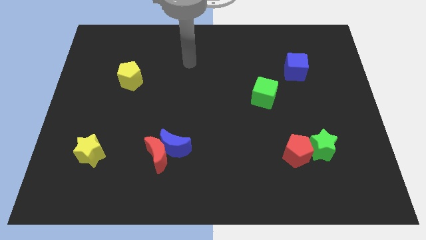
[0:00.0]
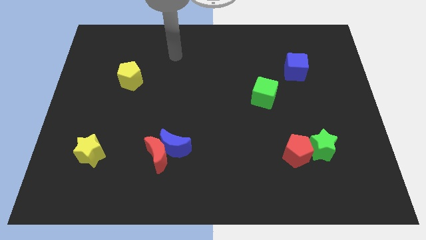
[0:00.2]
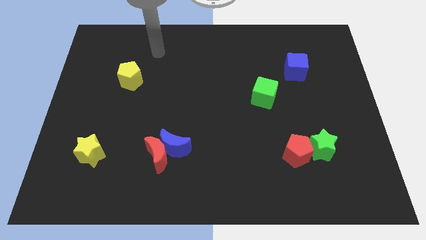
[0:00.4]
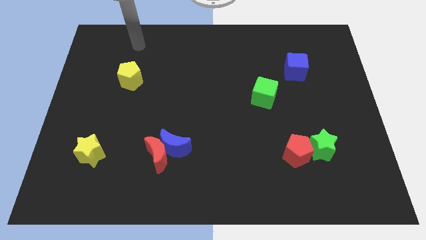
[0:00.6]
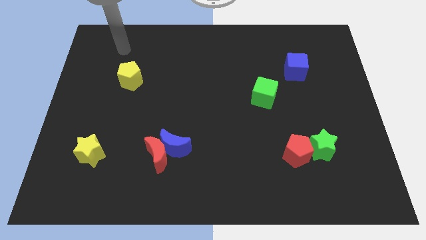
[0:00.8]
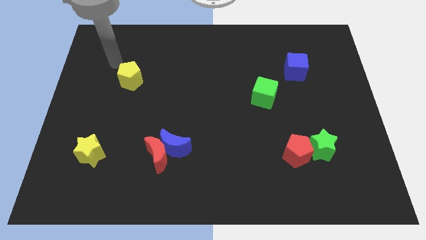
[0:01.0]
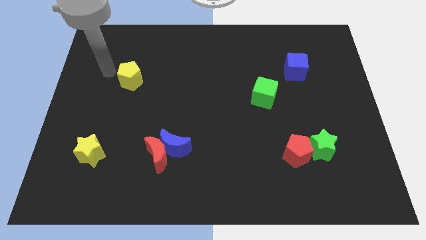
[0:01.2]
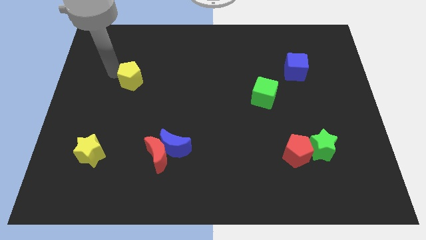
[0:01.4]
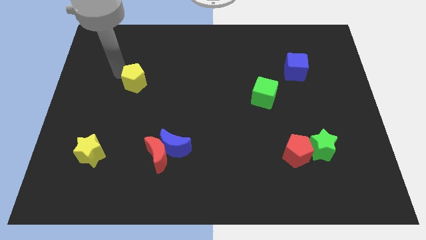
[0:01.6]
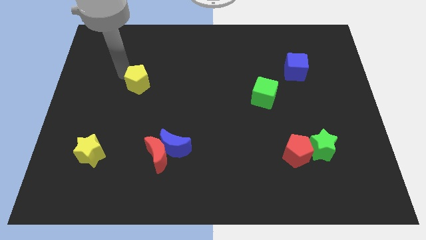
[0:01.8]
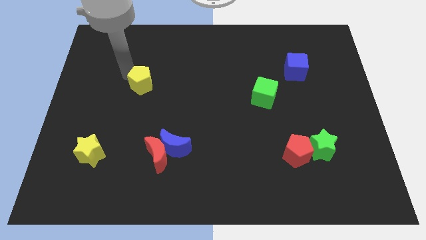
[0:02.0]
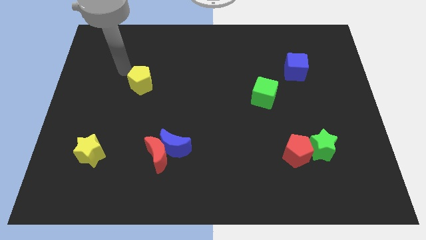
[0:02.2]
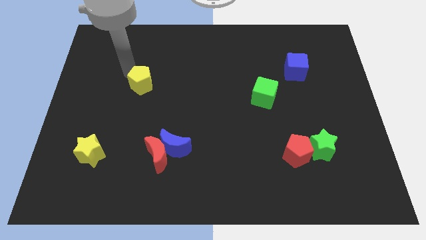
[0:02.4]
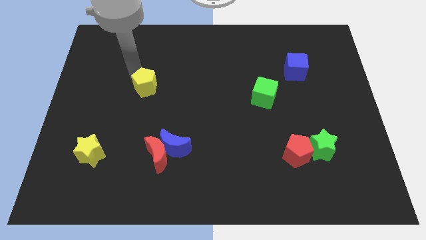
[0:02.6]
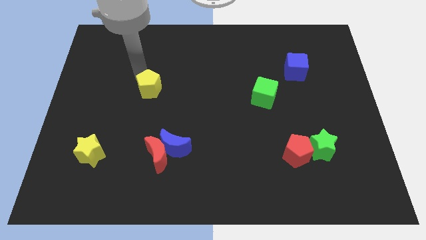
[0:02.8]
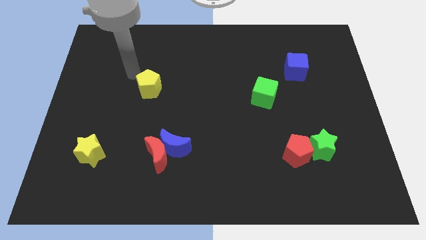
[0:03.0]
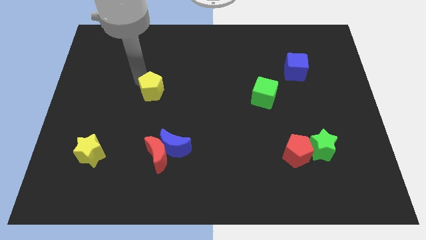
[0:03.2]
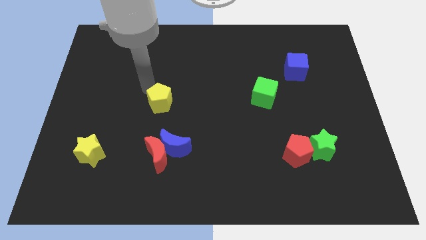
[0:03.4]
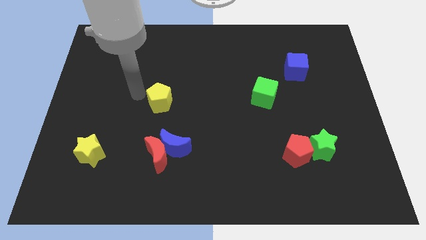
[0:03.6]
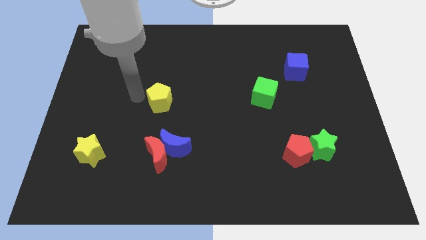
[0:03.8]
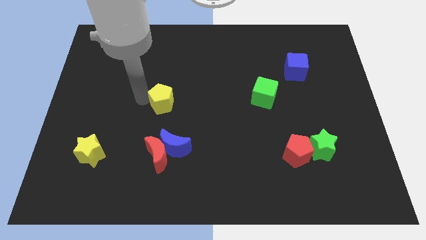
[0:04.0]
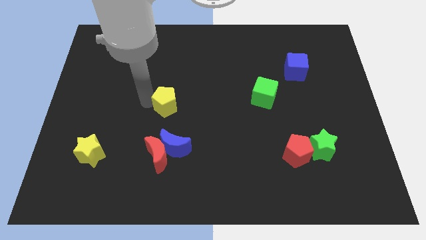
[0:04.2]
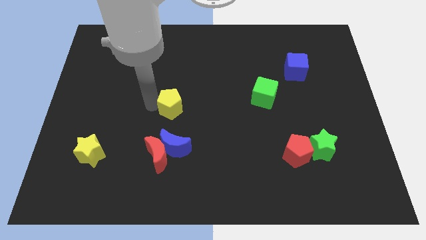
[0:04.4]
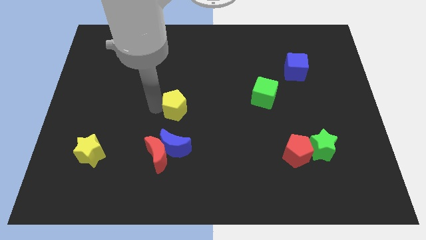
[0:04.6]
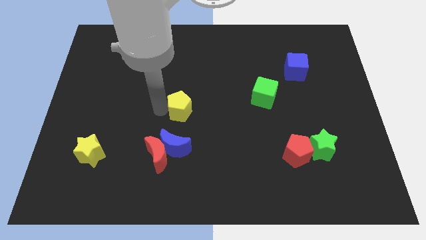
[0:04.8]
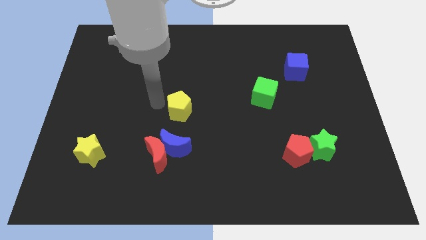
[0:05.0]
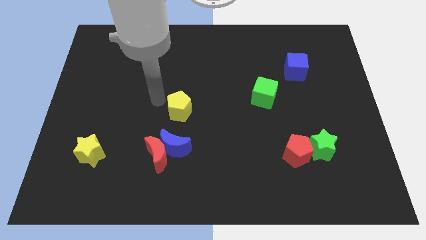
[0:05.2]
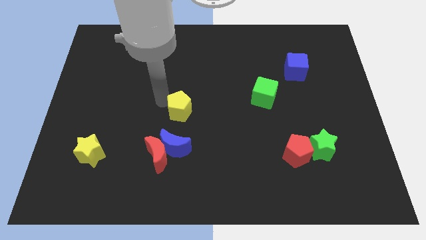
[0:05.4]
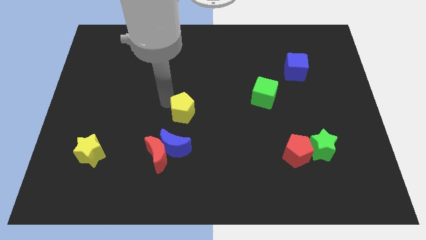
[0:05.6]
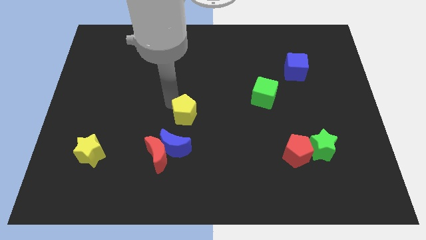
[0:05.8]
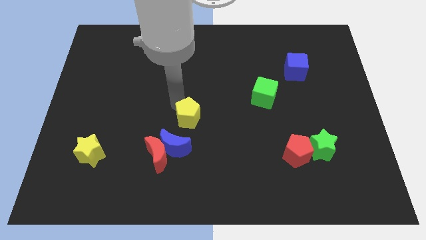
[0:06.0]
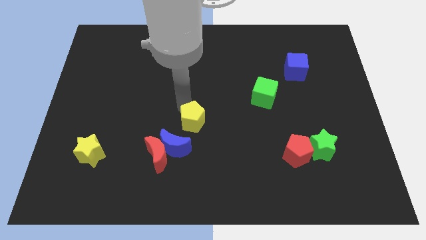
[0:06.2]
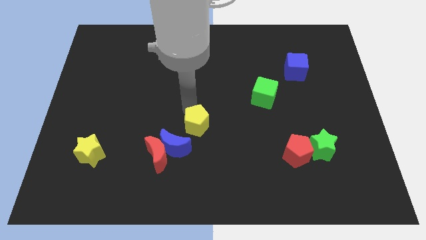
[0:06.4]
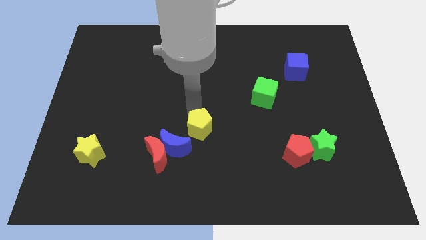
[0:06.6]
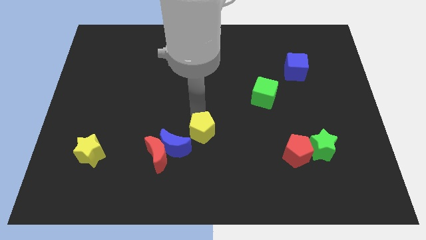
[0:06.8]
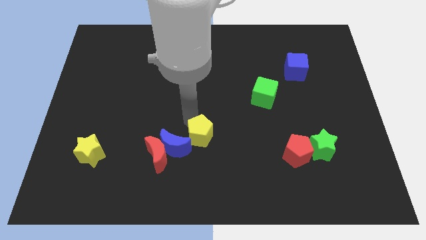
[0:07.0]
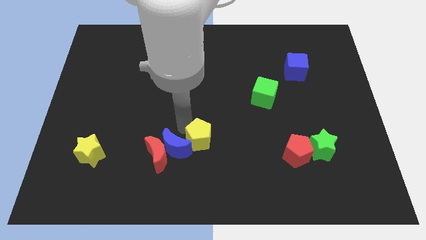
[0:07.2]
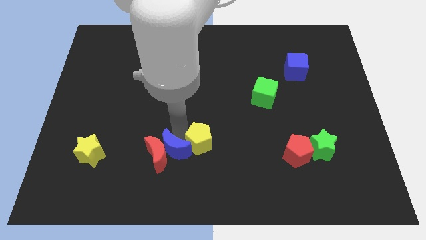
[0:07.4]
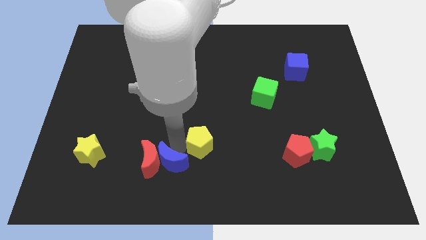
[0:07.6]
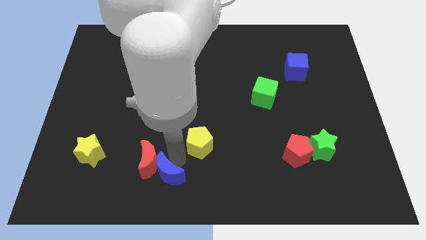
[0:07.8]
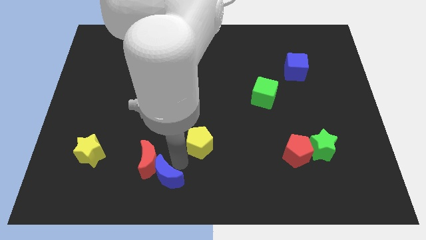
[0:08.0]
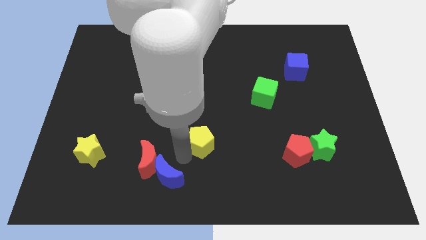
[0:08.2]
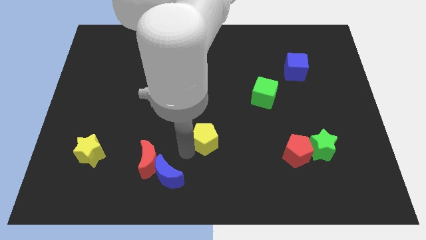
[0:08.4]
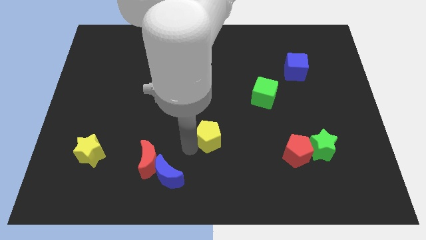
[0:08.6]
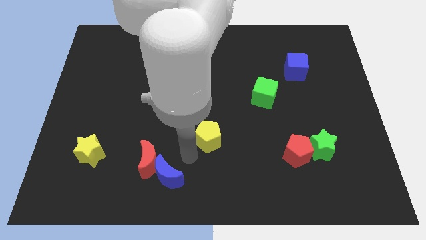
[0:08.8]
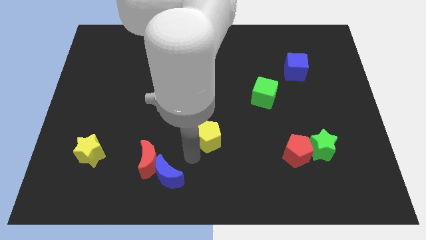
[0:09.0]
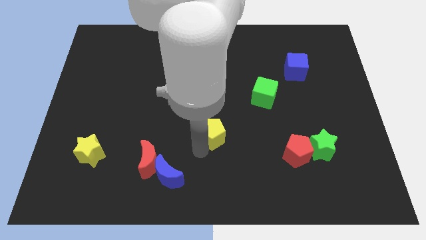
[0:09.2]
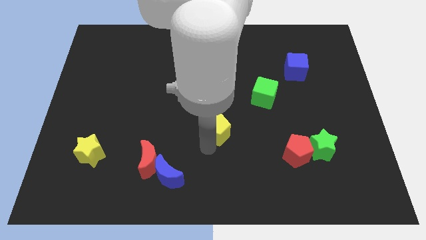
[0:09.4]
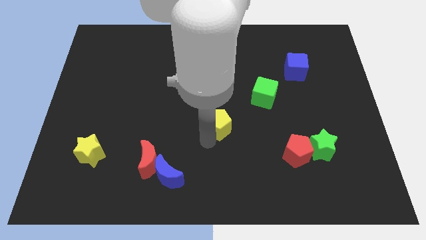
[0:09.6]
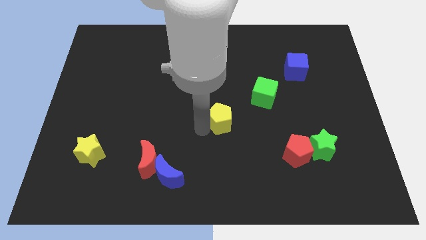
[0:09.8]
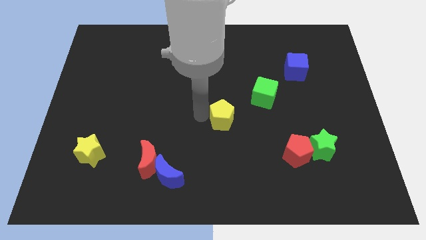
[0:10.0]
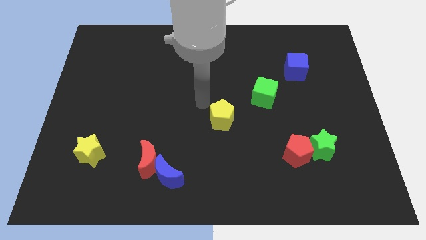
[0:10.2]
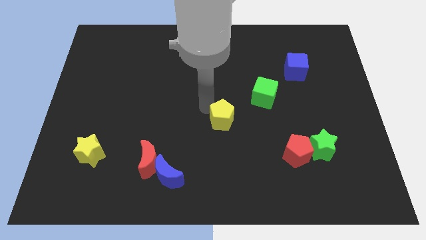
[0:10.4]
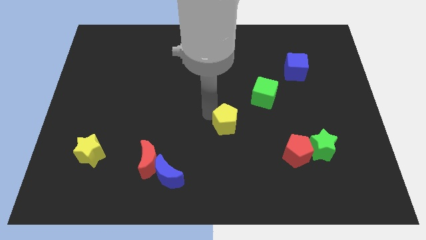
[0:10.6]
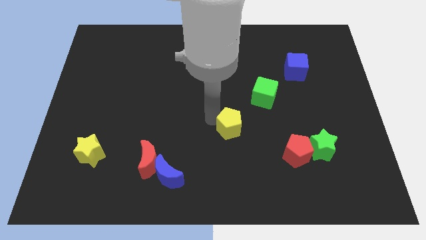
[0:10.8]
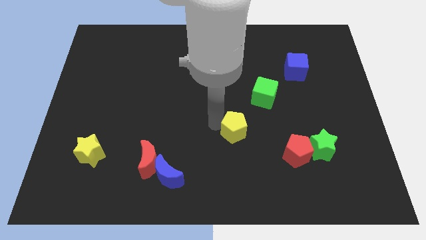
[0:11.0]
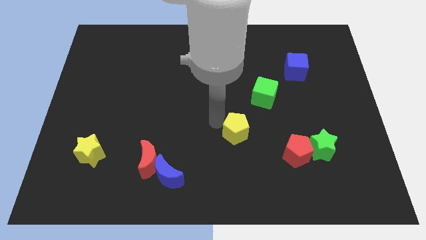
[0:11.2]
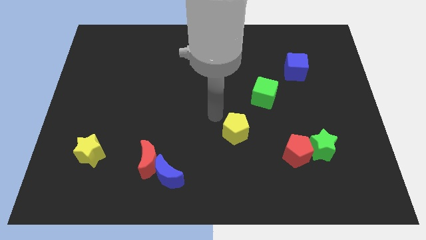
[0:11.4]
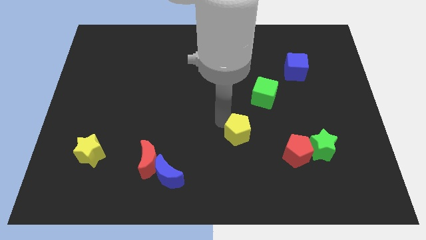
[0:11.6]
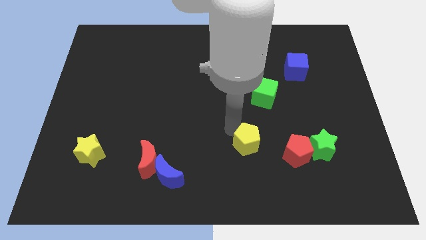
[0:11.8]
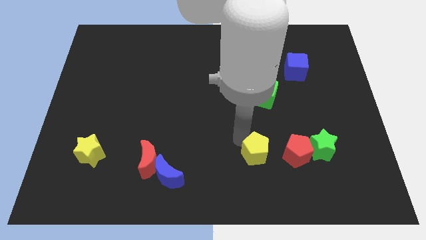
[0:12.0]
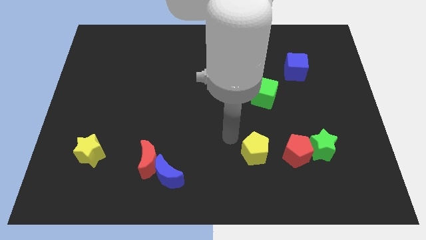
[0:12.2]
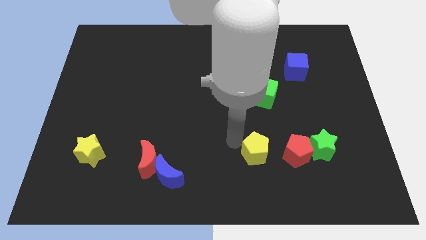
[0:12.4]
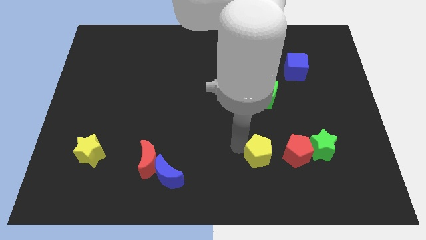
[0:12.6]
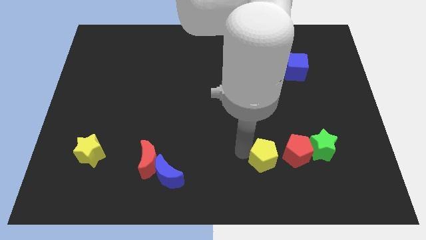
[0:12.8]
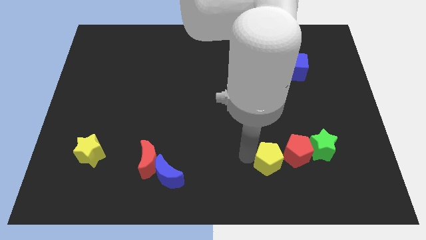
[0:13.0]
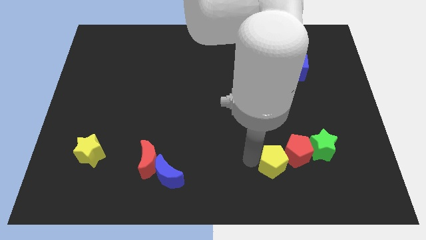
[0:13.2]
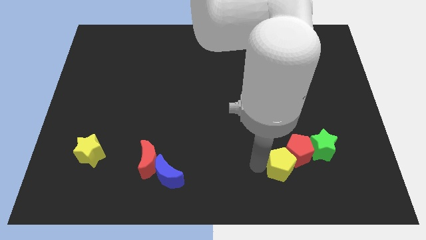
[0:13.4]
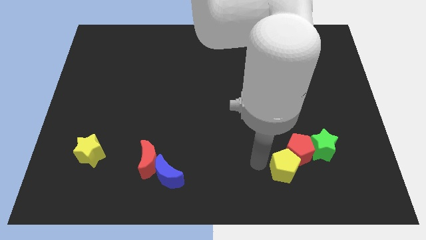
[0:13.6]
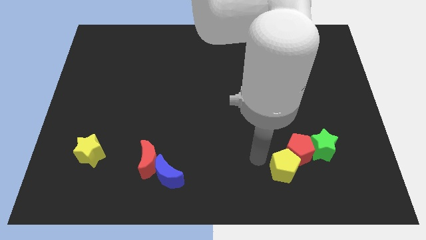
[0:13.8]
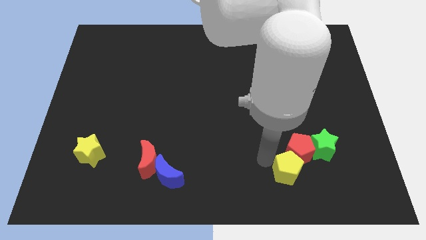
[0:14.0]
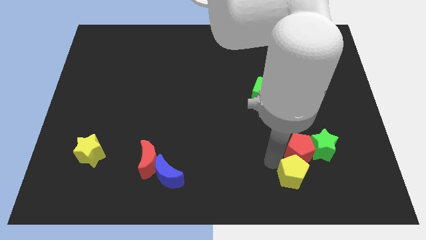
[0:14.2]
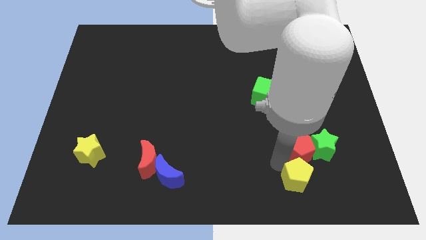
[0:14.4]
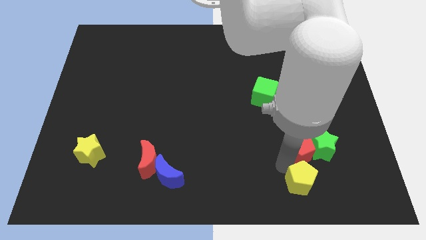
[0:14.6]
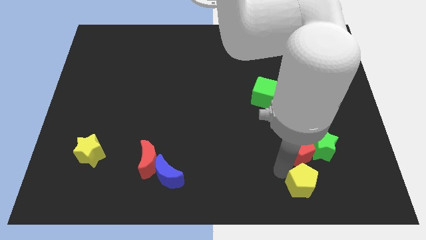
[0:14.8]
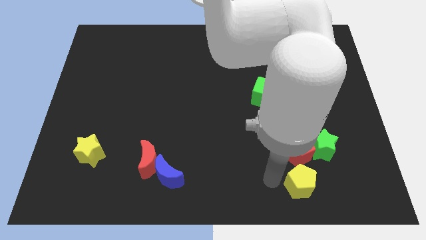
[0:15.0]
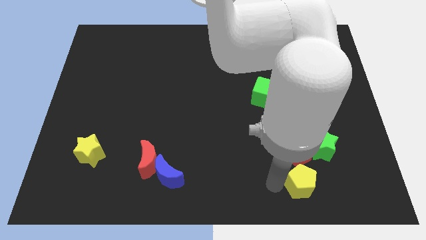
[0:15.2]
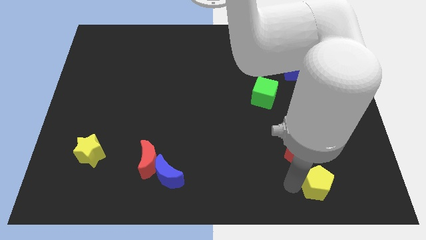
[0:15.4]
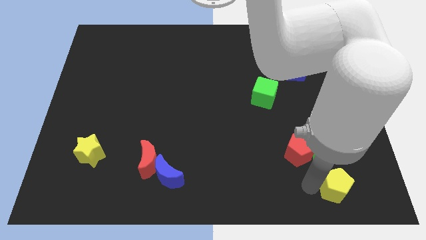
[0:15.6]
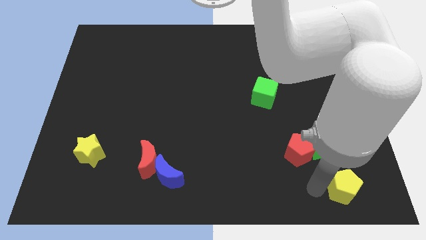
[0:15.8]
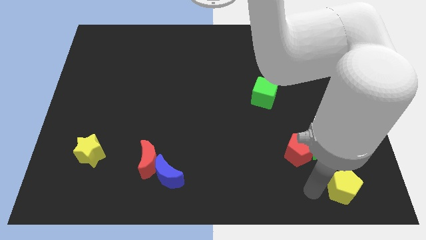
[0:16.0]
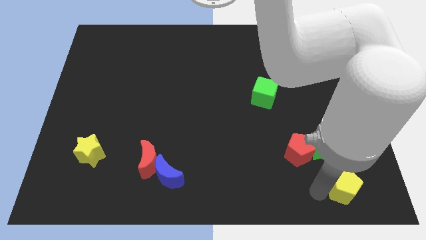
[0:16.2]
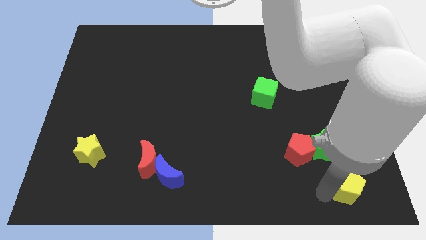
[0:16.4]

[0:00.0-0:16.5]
move the yellow pentagon to the bottom right of the board
